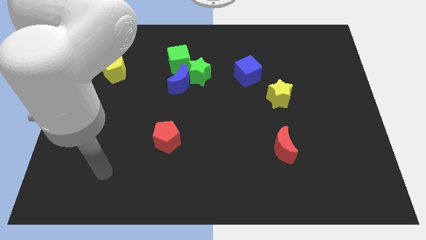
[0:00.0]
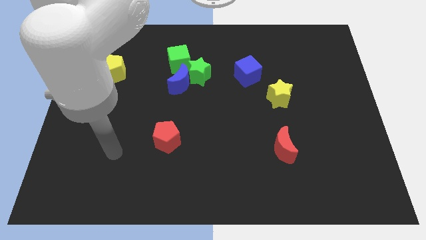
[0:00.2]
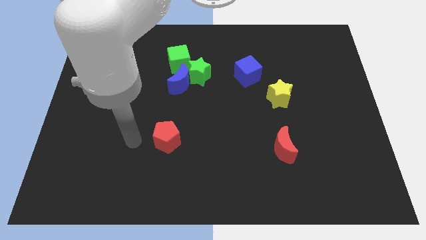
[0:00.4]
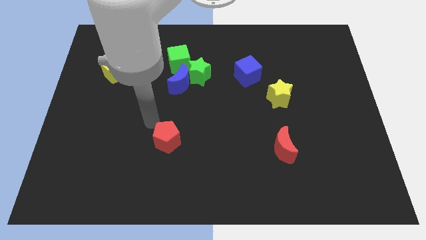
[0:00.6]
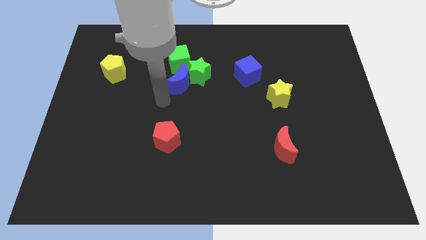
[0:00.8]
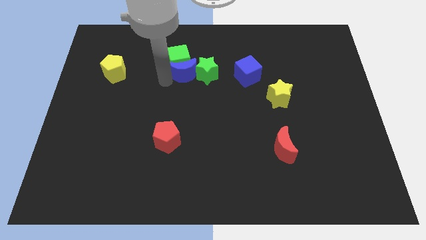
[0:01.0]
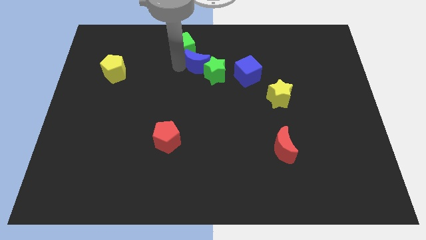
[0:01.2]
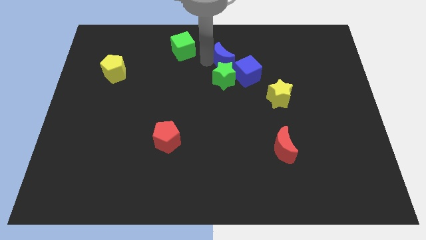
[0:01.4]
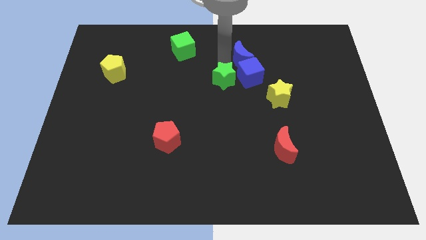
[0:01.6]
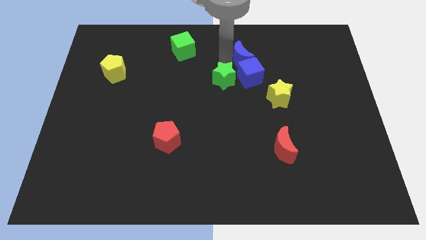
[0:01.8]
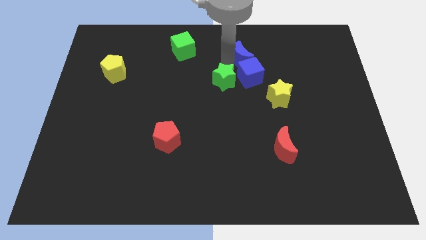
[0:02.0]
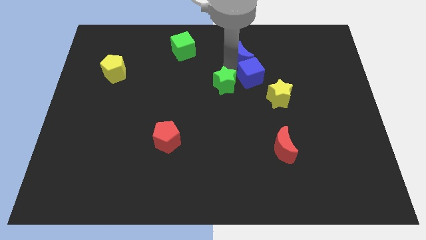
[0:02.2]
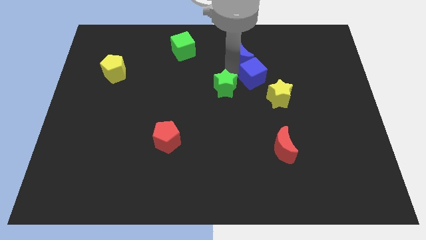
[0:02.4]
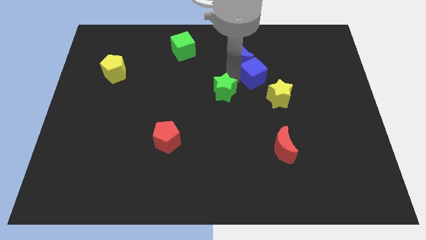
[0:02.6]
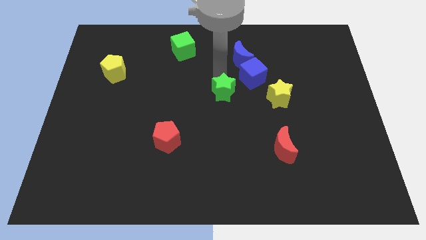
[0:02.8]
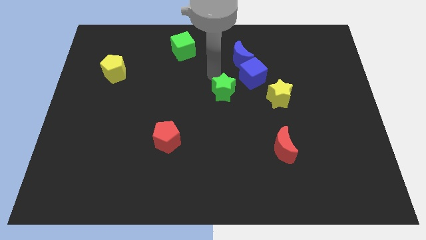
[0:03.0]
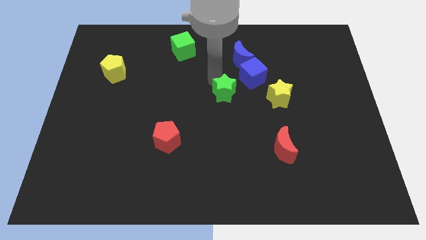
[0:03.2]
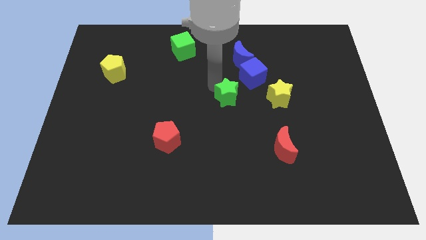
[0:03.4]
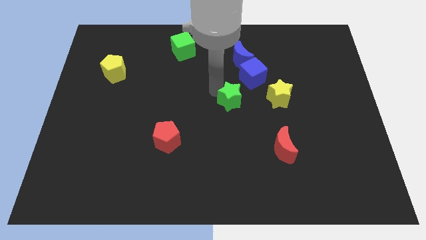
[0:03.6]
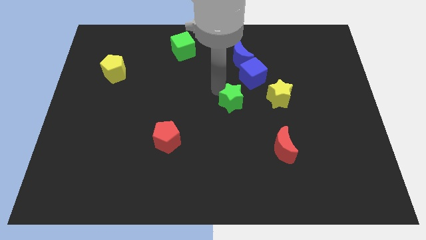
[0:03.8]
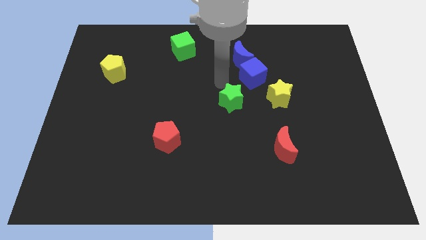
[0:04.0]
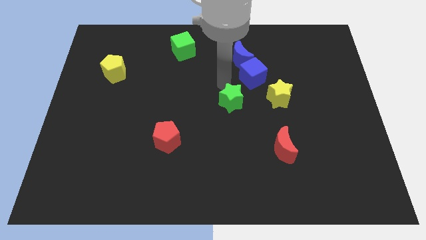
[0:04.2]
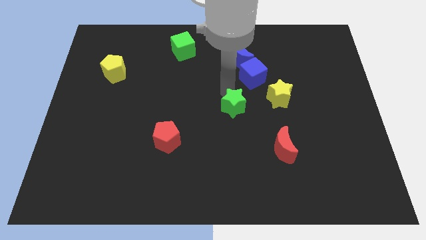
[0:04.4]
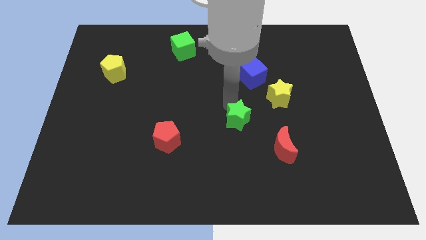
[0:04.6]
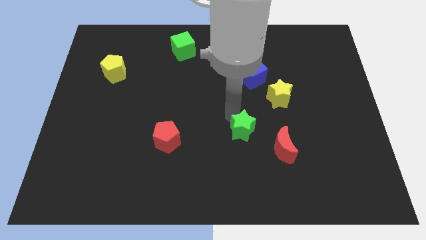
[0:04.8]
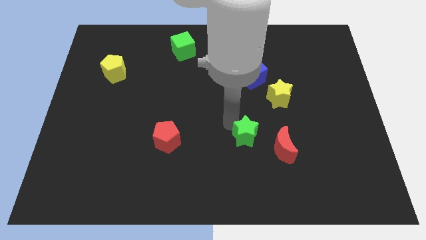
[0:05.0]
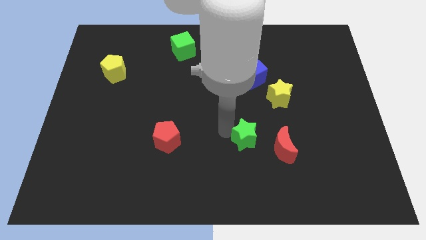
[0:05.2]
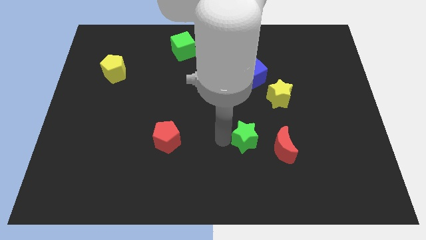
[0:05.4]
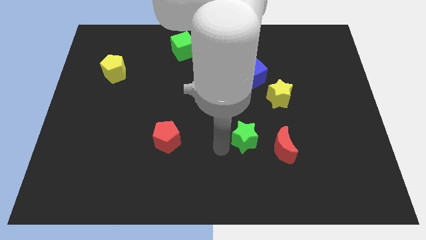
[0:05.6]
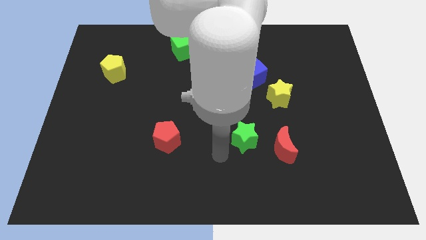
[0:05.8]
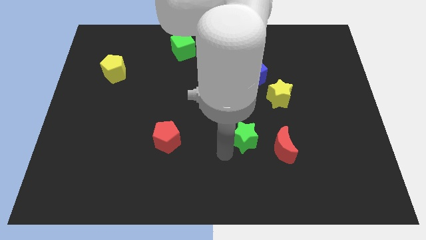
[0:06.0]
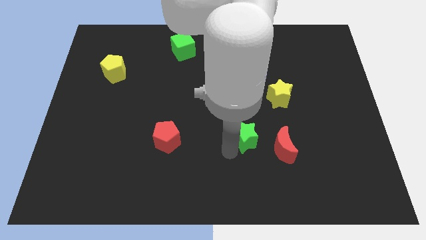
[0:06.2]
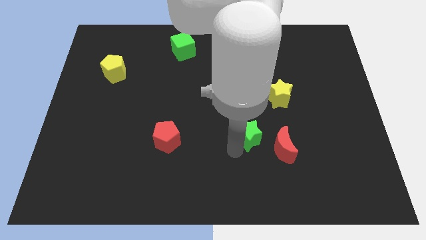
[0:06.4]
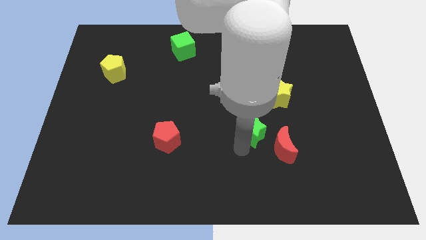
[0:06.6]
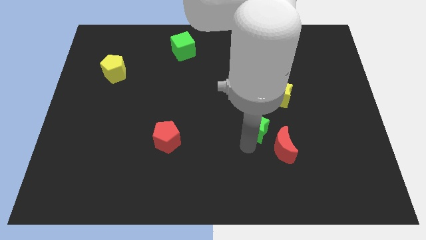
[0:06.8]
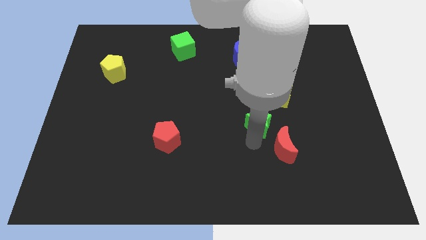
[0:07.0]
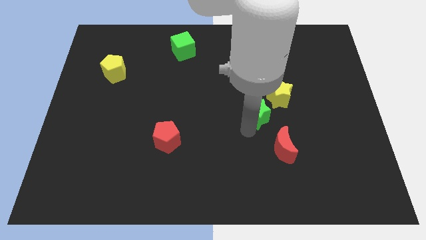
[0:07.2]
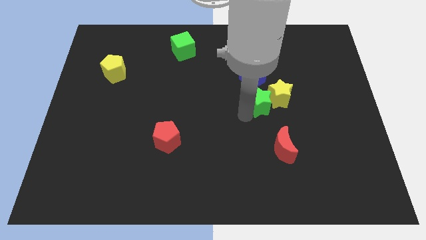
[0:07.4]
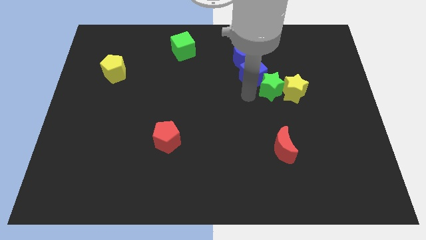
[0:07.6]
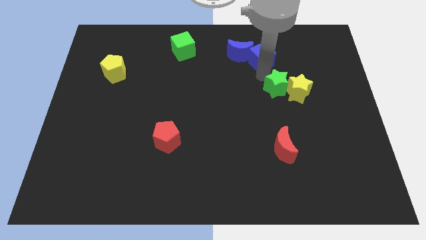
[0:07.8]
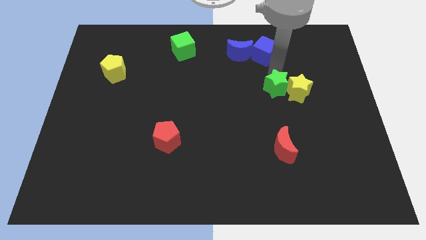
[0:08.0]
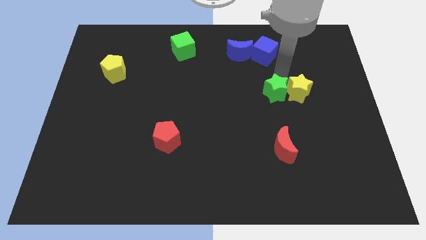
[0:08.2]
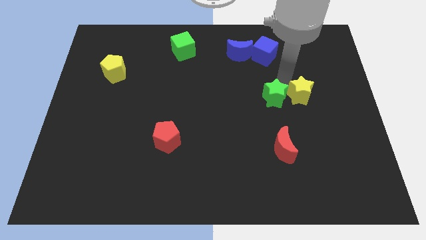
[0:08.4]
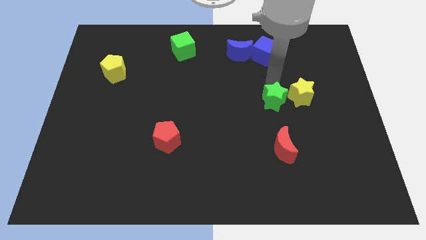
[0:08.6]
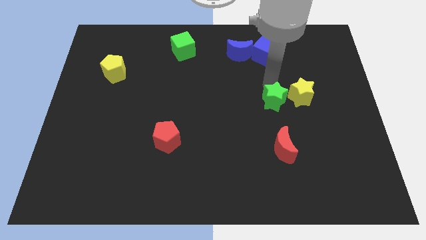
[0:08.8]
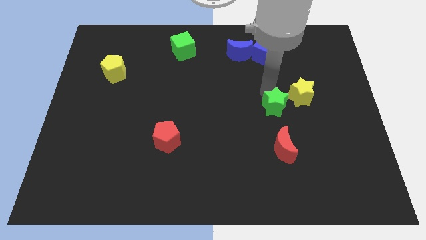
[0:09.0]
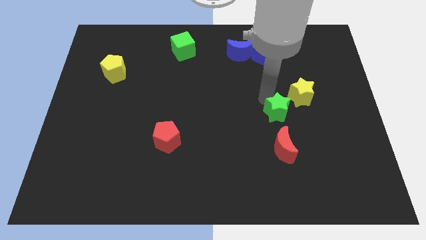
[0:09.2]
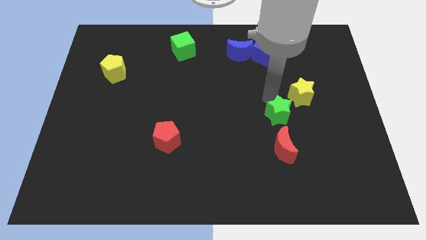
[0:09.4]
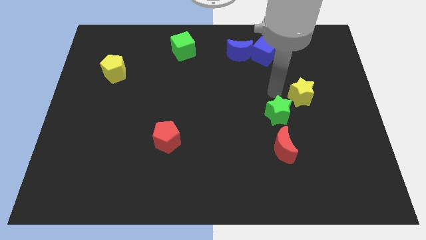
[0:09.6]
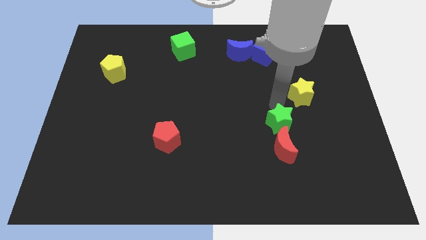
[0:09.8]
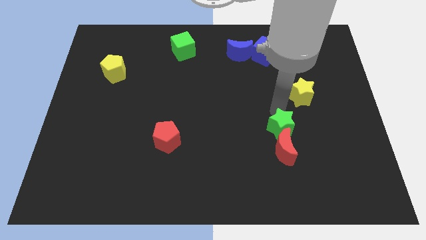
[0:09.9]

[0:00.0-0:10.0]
push the green star towards the red moon

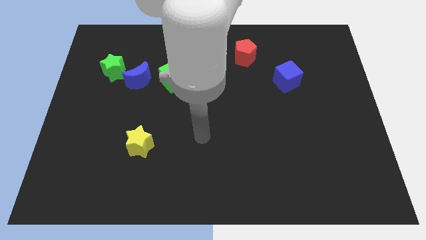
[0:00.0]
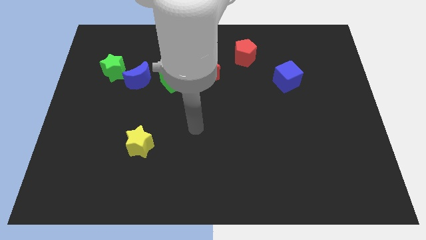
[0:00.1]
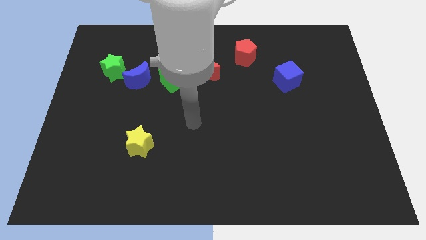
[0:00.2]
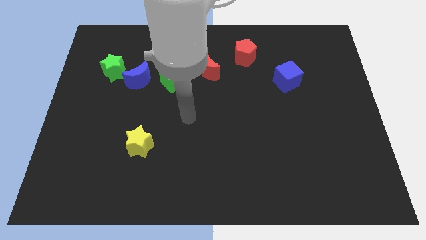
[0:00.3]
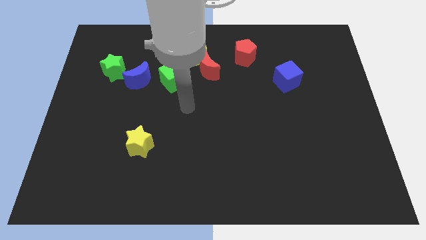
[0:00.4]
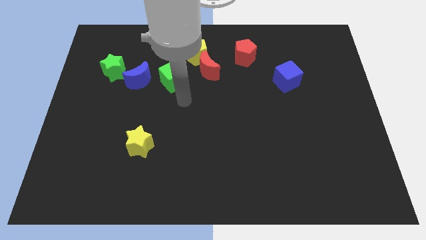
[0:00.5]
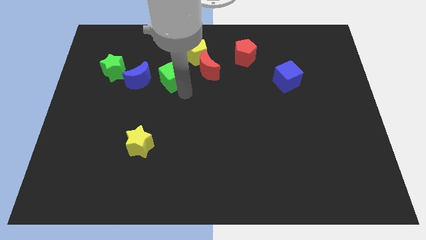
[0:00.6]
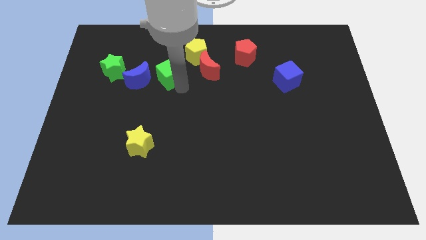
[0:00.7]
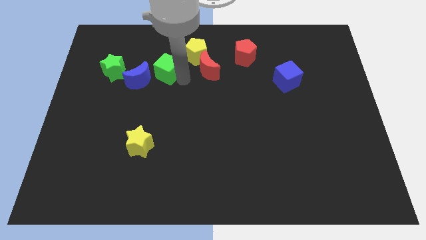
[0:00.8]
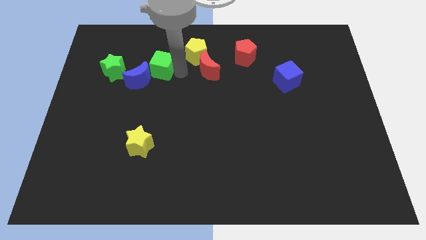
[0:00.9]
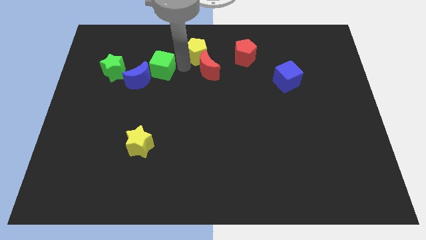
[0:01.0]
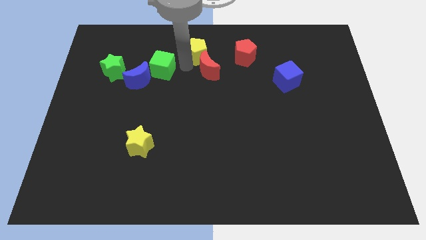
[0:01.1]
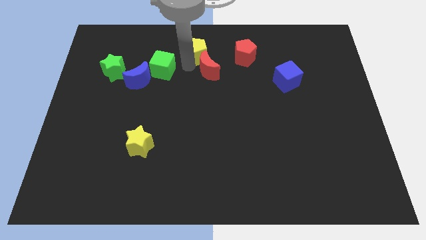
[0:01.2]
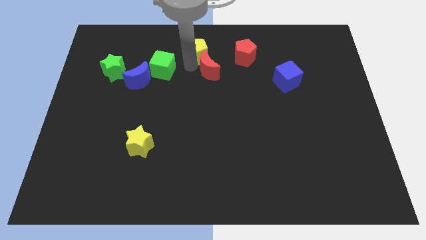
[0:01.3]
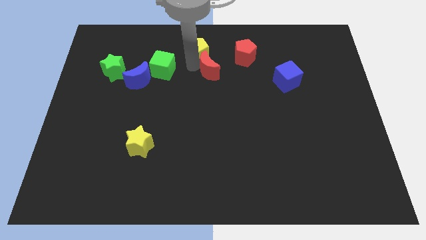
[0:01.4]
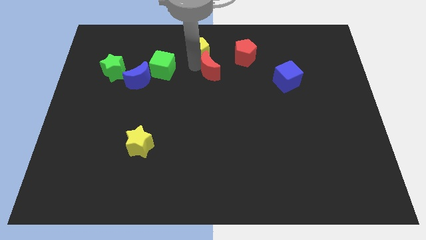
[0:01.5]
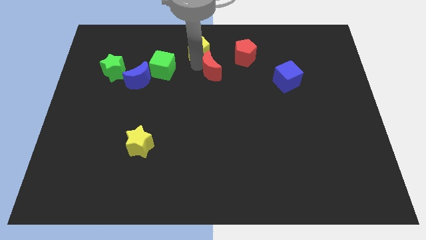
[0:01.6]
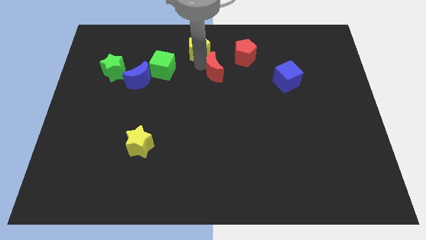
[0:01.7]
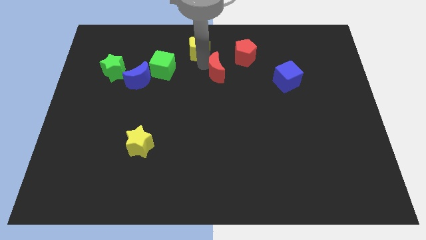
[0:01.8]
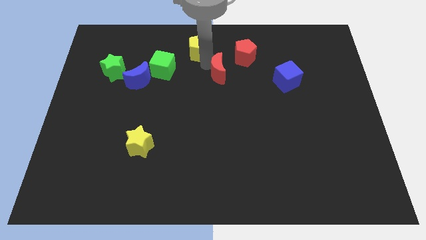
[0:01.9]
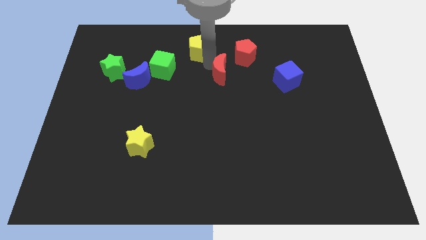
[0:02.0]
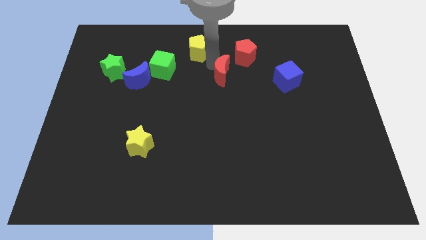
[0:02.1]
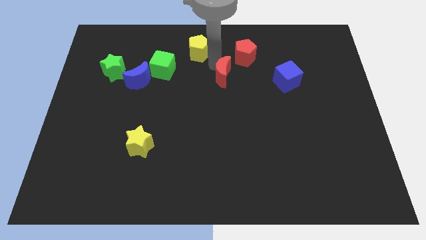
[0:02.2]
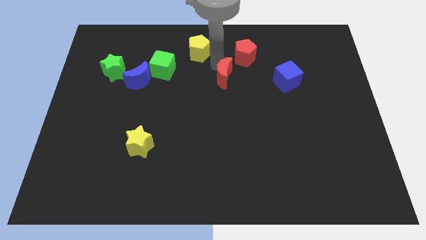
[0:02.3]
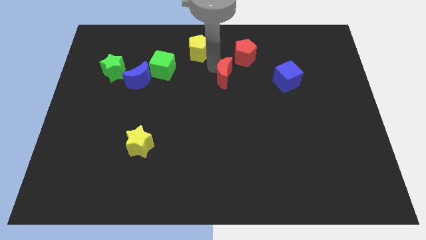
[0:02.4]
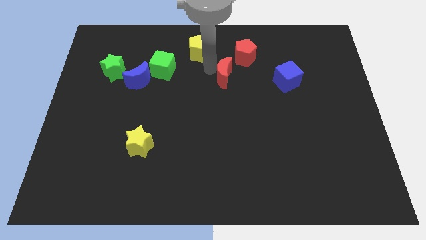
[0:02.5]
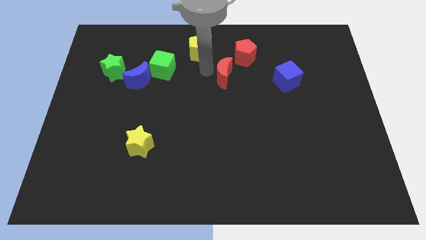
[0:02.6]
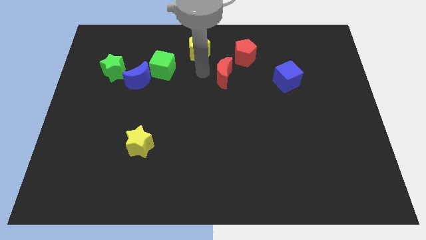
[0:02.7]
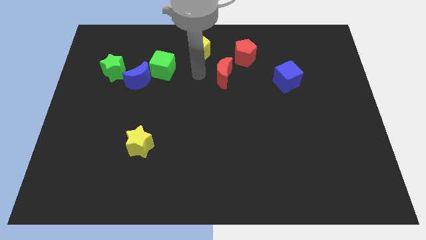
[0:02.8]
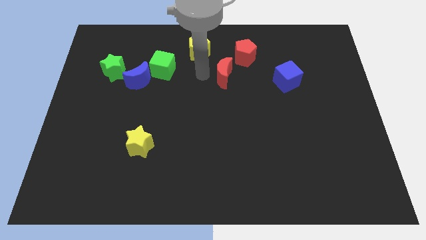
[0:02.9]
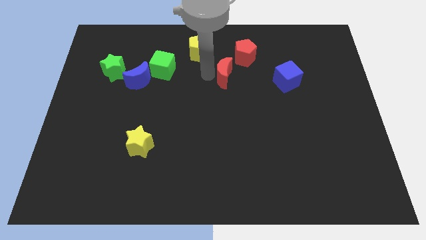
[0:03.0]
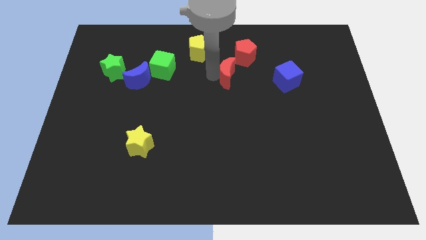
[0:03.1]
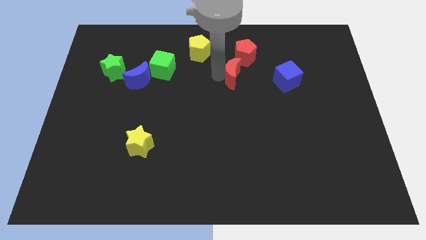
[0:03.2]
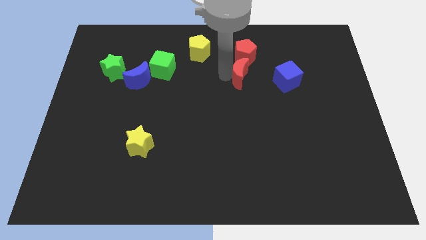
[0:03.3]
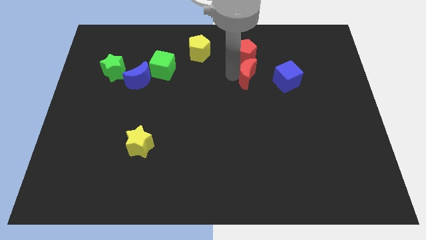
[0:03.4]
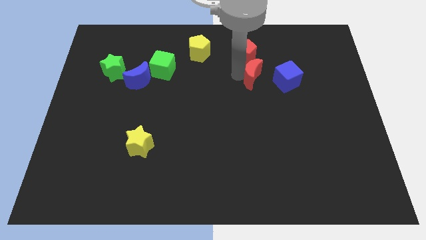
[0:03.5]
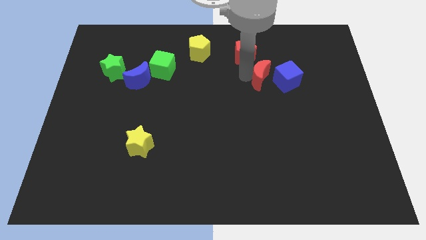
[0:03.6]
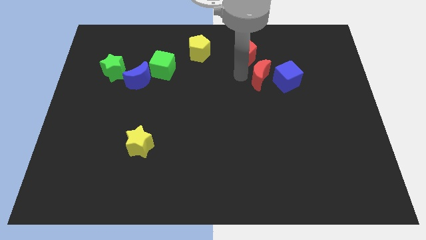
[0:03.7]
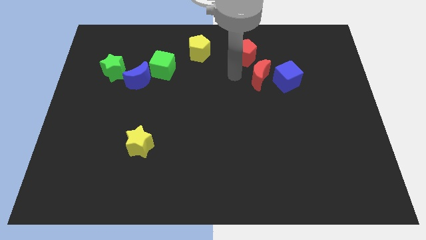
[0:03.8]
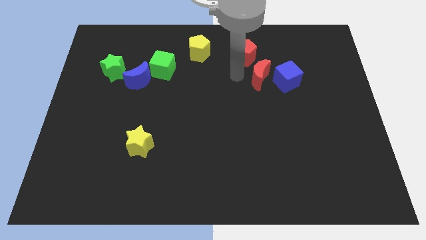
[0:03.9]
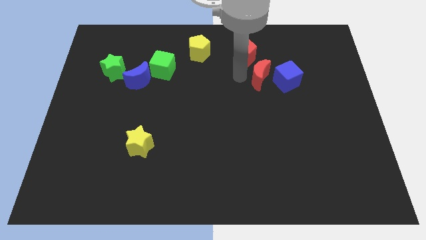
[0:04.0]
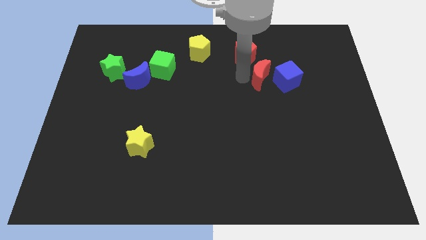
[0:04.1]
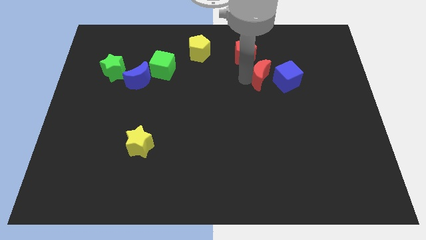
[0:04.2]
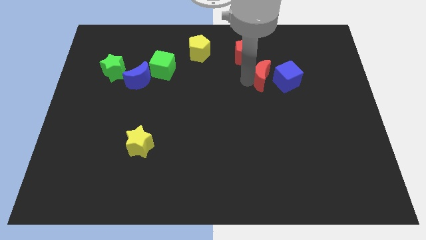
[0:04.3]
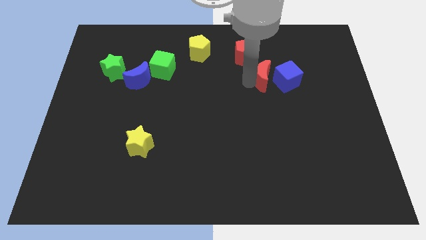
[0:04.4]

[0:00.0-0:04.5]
push the red moon to the blue cube
